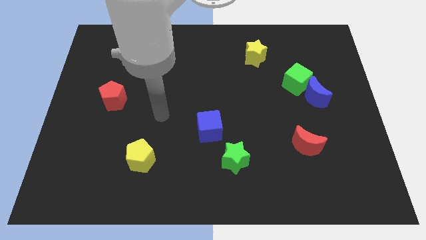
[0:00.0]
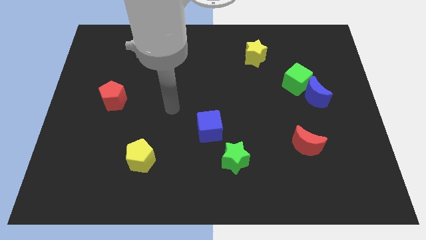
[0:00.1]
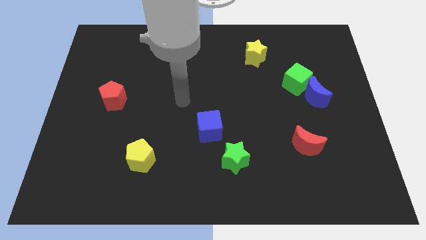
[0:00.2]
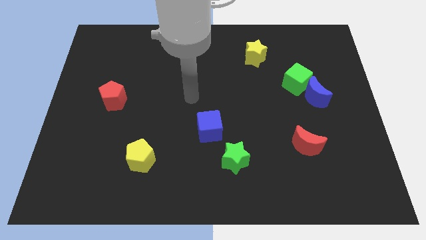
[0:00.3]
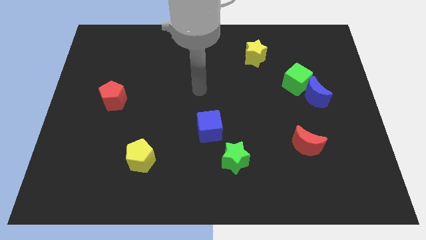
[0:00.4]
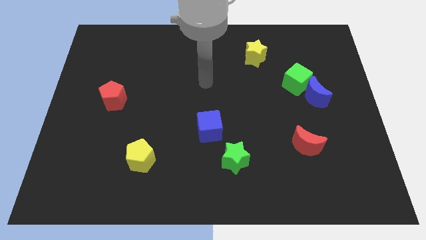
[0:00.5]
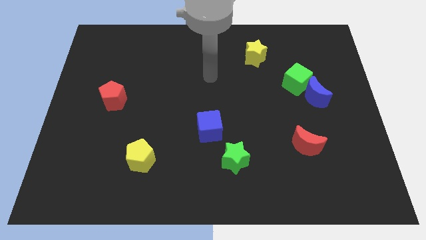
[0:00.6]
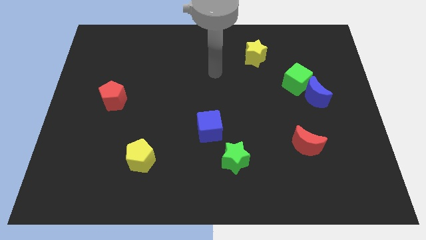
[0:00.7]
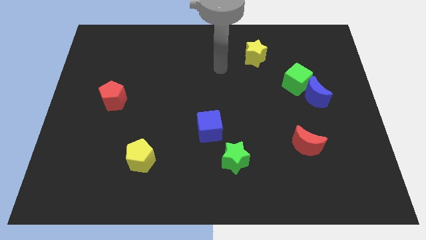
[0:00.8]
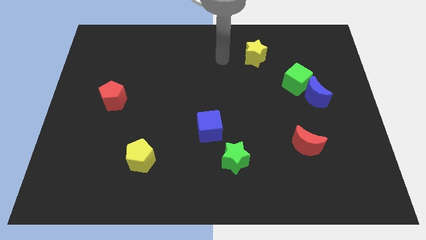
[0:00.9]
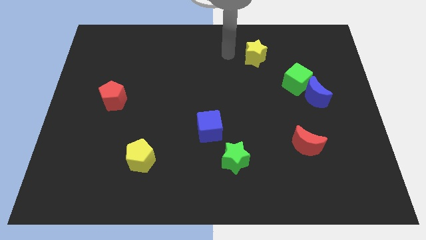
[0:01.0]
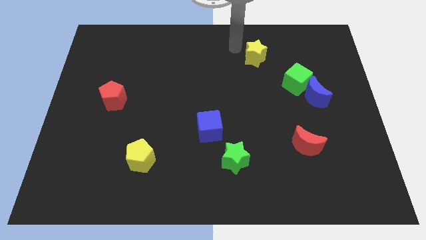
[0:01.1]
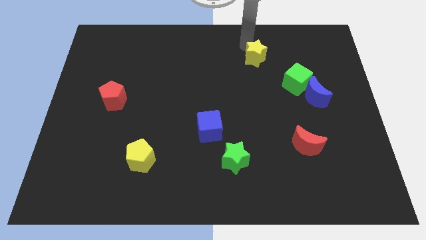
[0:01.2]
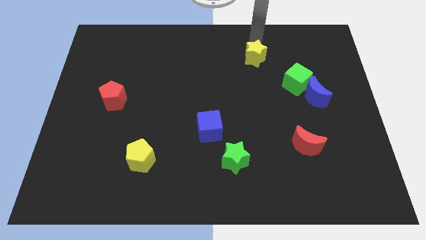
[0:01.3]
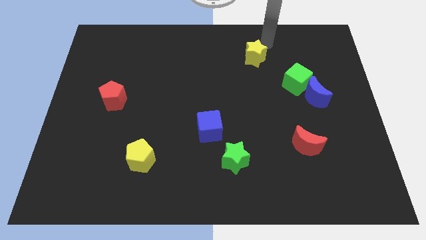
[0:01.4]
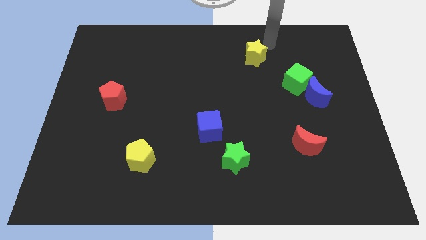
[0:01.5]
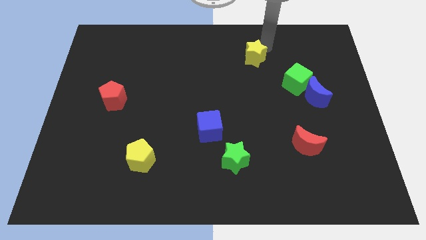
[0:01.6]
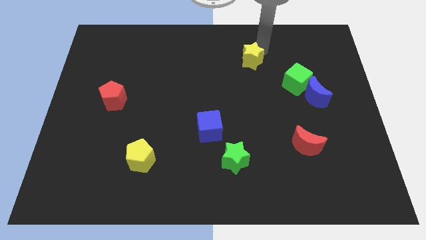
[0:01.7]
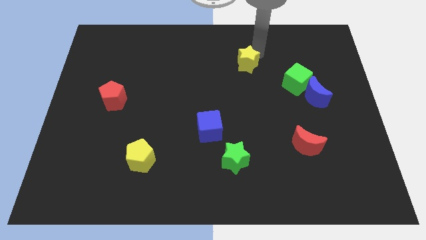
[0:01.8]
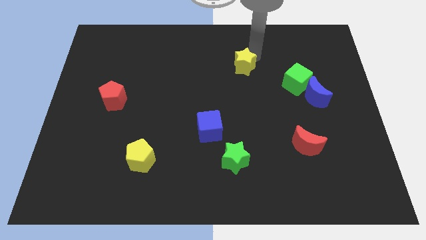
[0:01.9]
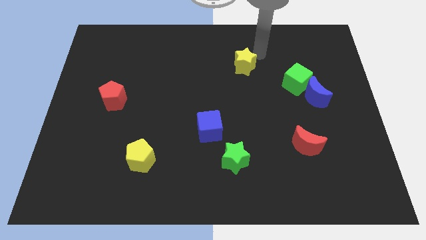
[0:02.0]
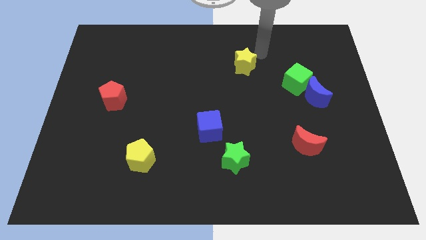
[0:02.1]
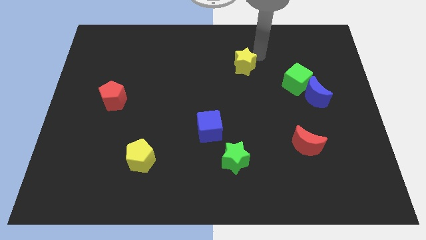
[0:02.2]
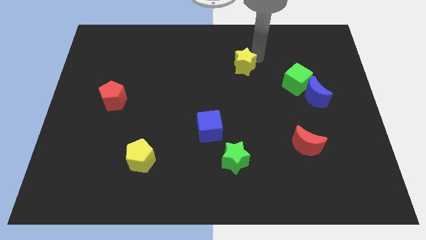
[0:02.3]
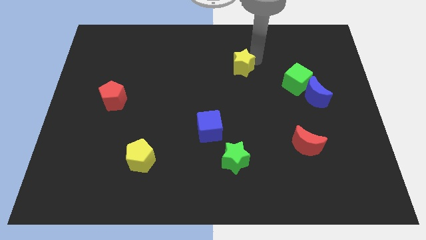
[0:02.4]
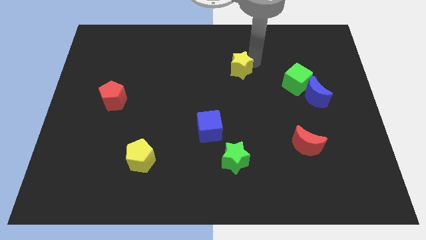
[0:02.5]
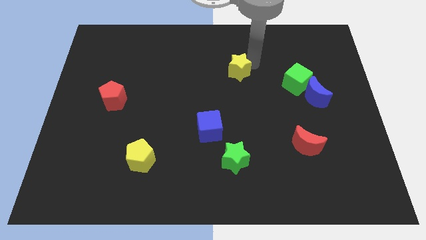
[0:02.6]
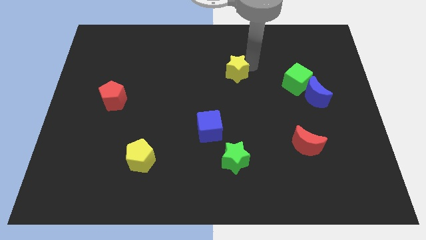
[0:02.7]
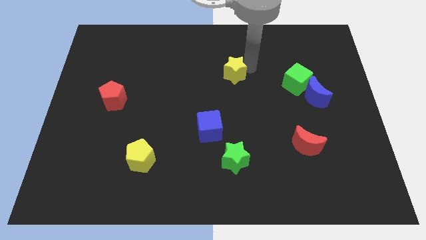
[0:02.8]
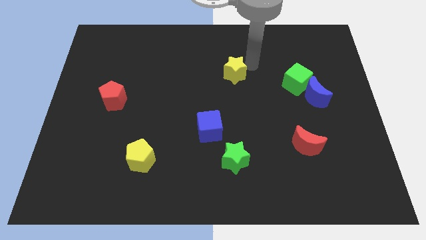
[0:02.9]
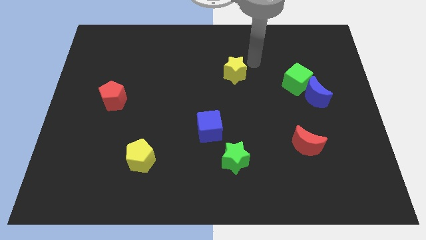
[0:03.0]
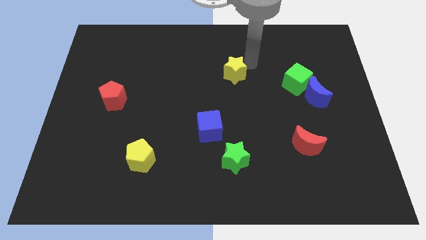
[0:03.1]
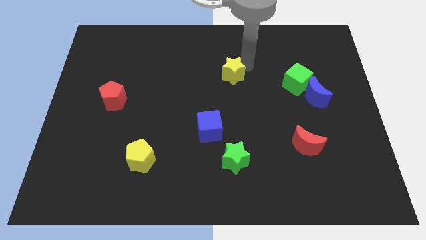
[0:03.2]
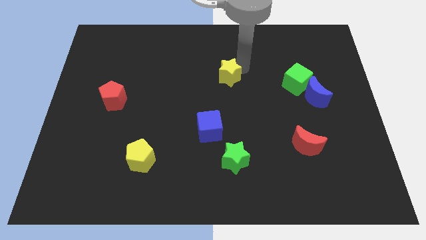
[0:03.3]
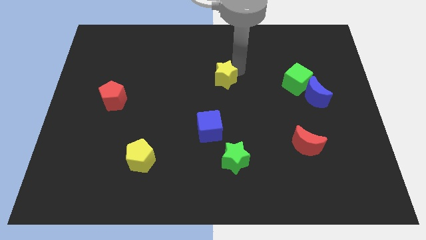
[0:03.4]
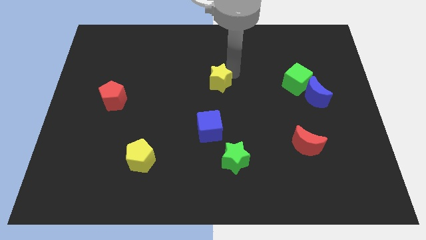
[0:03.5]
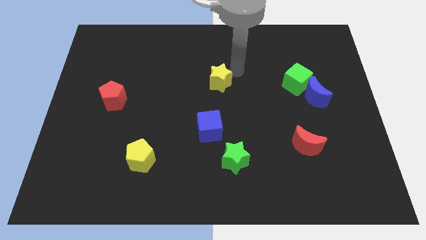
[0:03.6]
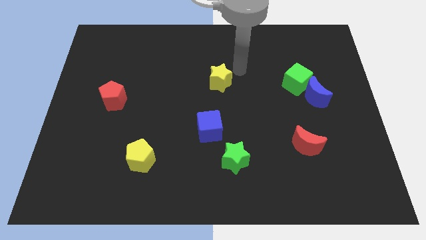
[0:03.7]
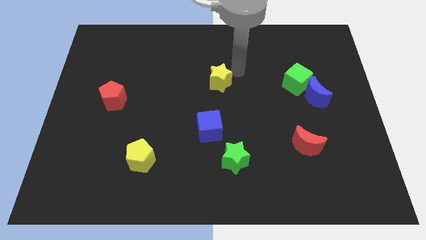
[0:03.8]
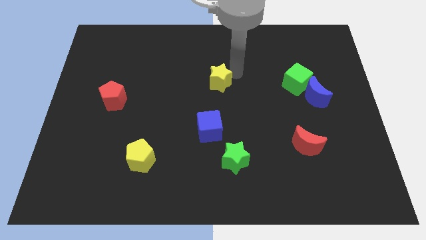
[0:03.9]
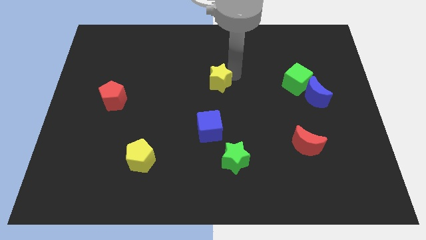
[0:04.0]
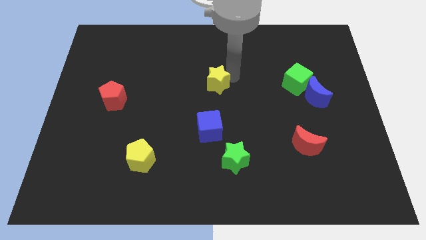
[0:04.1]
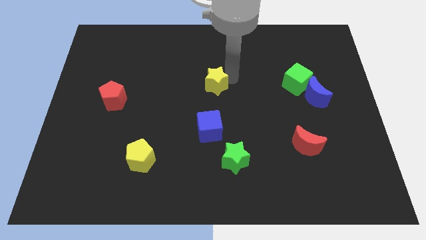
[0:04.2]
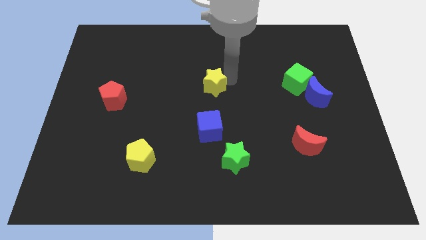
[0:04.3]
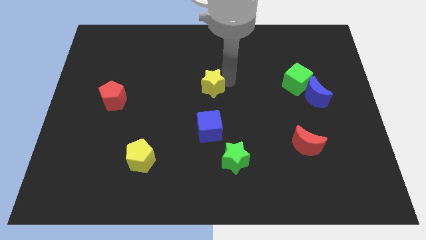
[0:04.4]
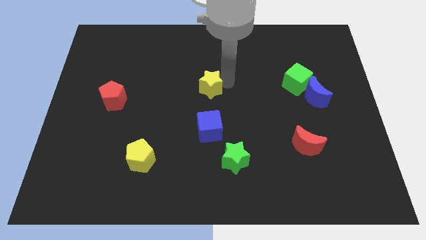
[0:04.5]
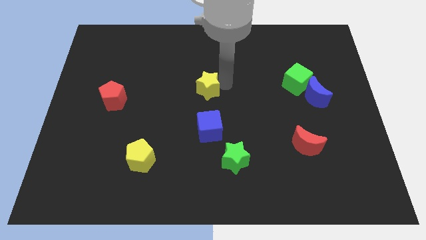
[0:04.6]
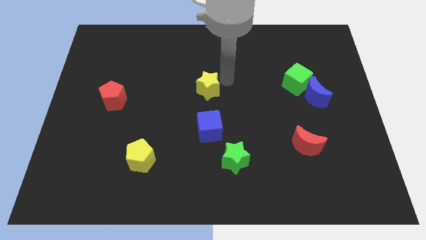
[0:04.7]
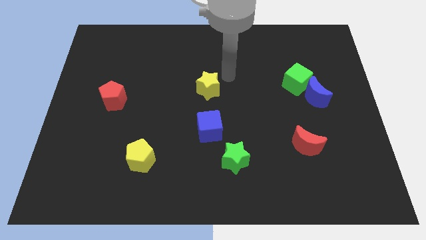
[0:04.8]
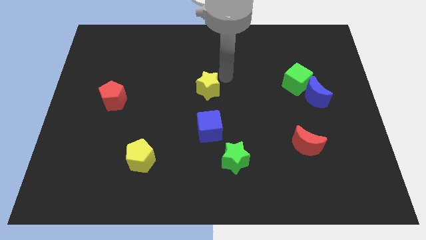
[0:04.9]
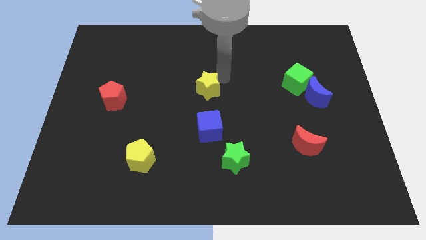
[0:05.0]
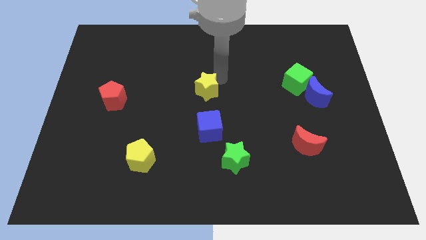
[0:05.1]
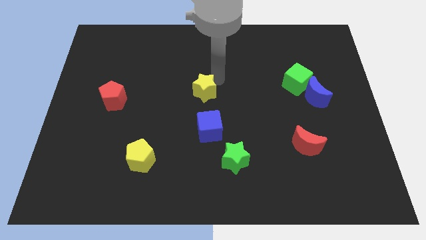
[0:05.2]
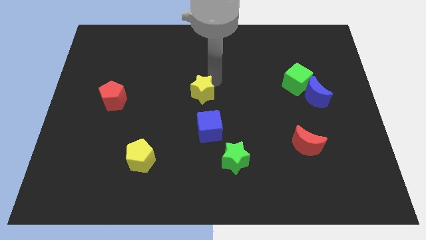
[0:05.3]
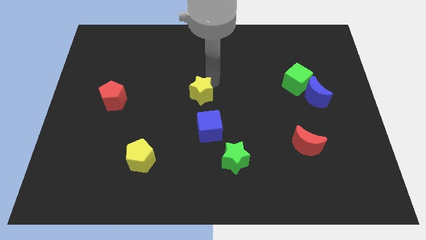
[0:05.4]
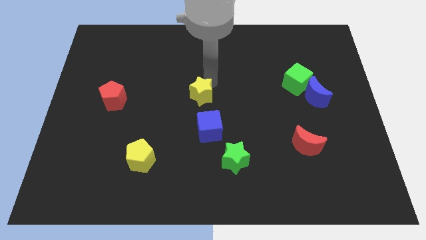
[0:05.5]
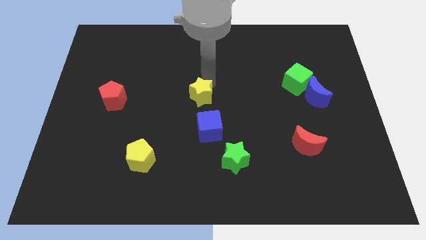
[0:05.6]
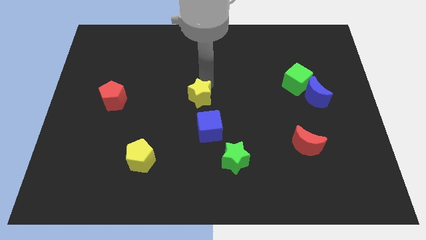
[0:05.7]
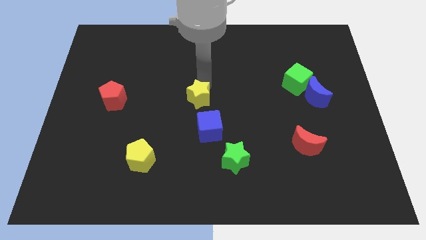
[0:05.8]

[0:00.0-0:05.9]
push the yellow star downwards and to the left diagonally

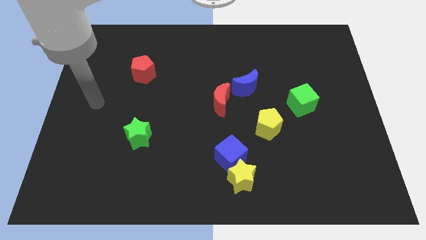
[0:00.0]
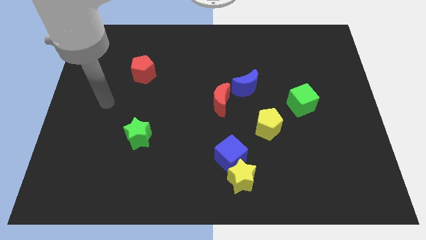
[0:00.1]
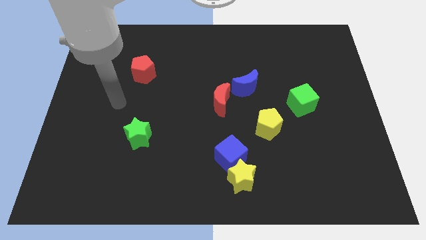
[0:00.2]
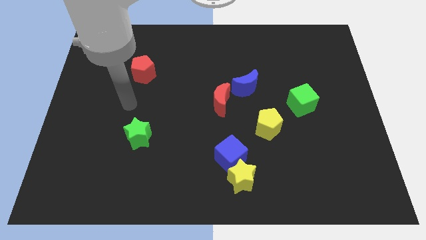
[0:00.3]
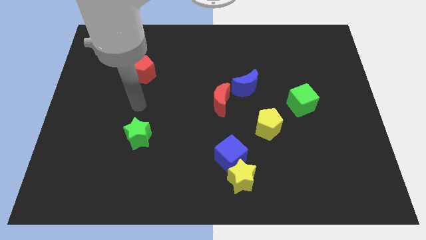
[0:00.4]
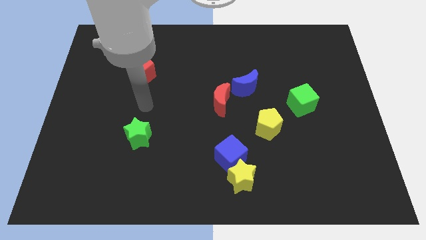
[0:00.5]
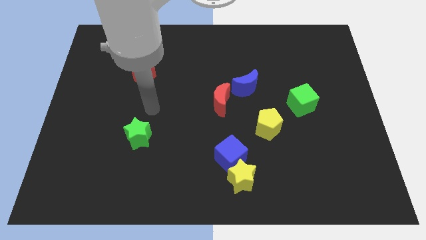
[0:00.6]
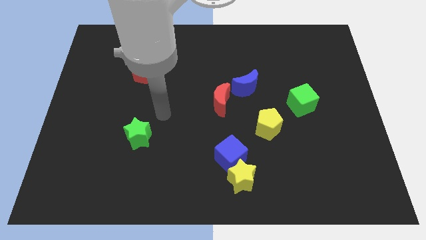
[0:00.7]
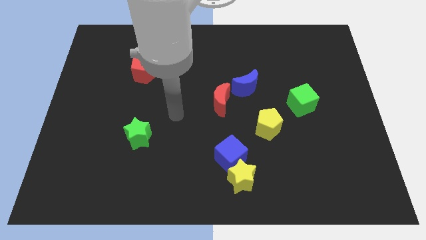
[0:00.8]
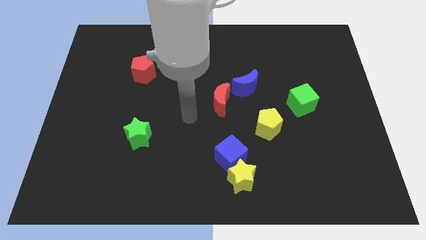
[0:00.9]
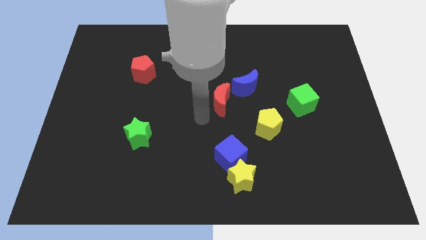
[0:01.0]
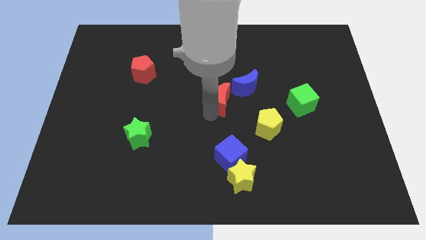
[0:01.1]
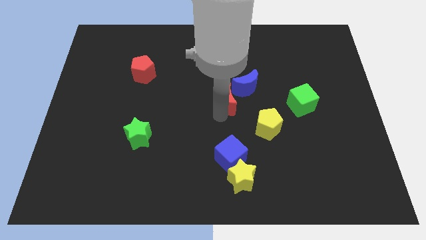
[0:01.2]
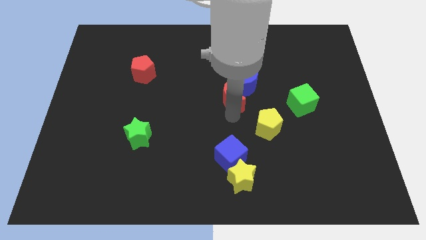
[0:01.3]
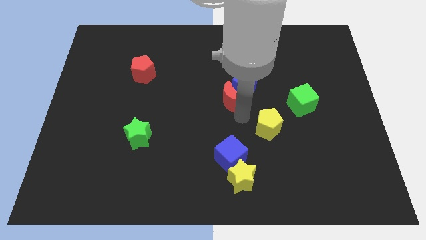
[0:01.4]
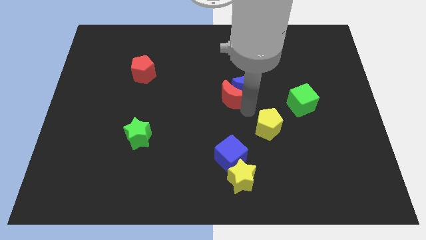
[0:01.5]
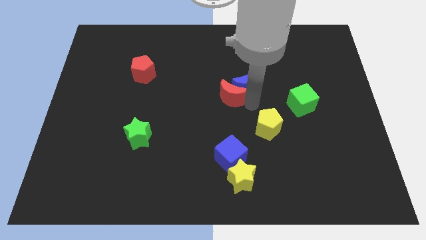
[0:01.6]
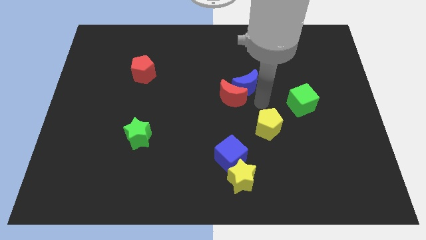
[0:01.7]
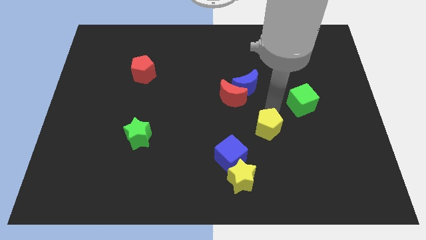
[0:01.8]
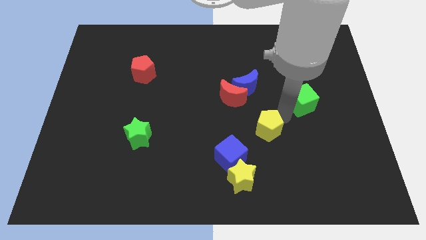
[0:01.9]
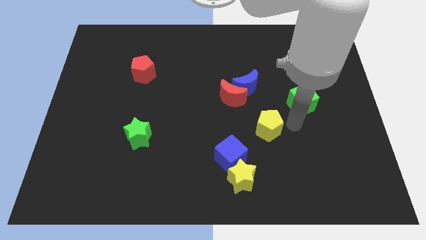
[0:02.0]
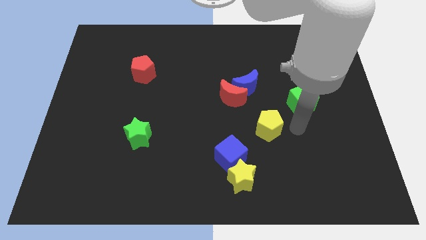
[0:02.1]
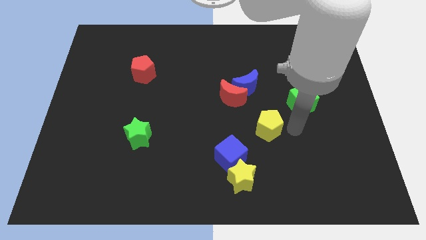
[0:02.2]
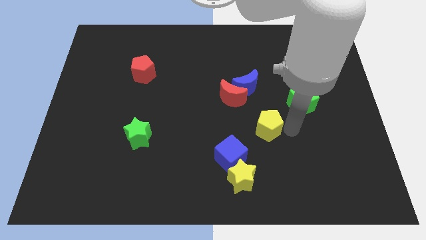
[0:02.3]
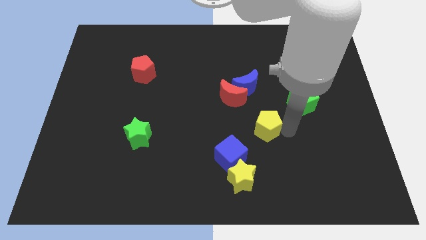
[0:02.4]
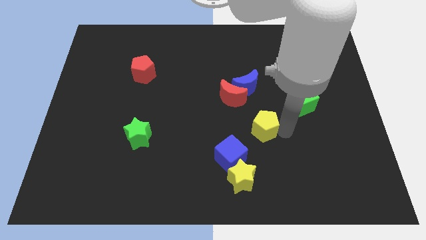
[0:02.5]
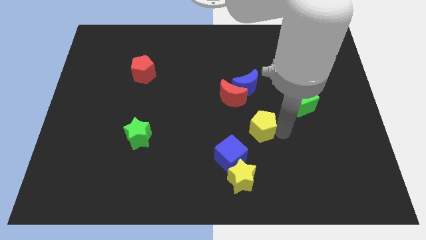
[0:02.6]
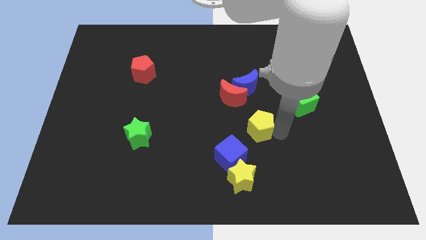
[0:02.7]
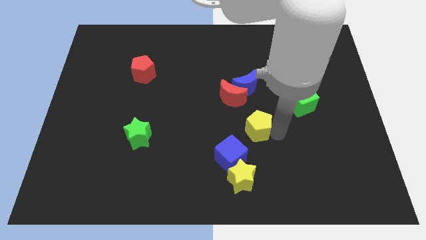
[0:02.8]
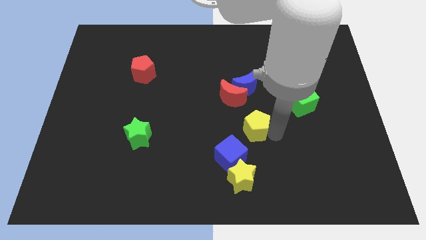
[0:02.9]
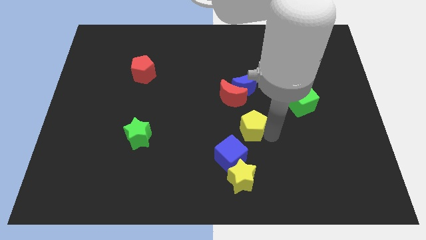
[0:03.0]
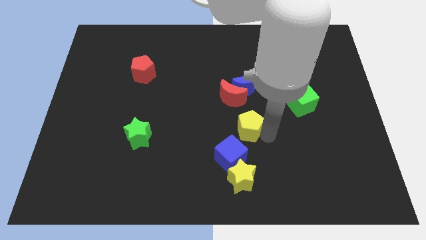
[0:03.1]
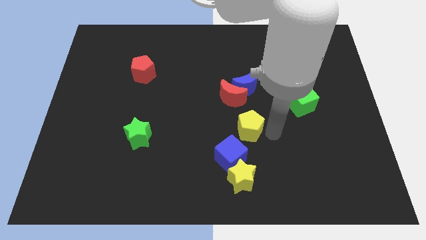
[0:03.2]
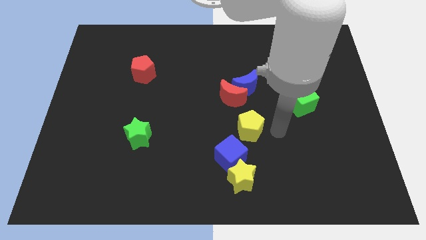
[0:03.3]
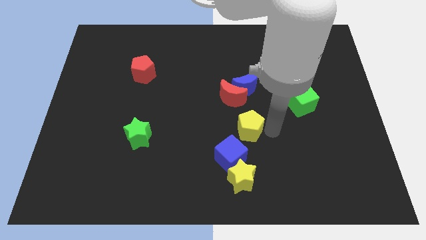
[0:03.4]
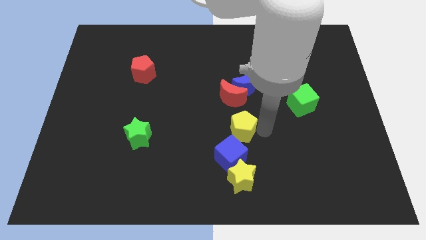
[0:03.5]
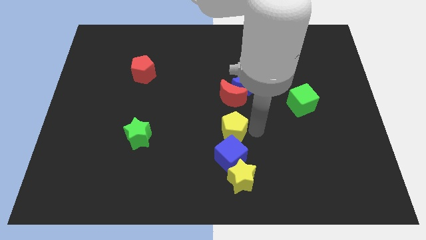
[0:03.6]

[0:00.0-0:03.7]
slightly slide the yellow pentagon to the left
